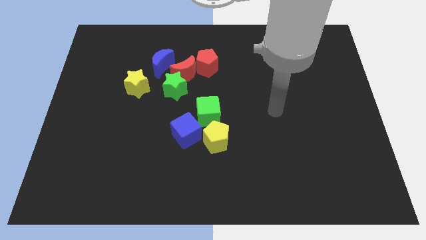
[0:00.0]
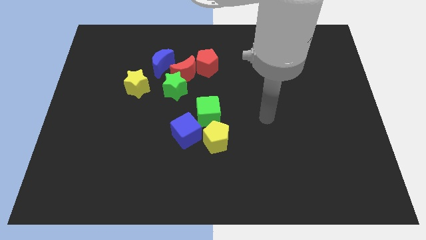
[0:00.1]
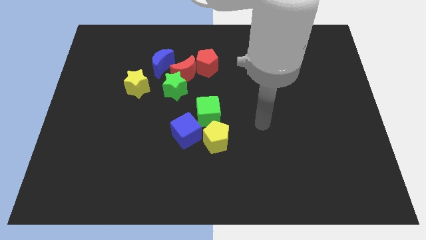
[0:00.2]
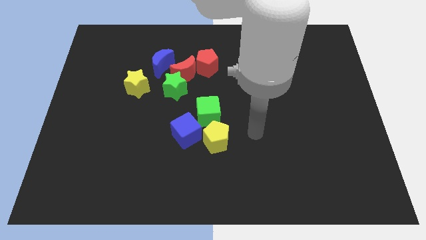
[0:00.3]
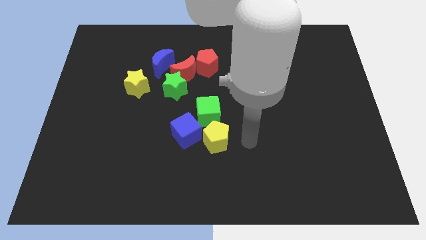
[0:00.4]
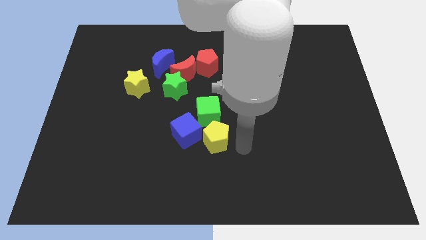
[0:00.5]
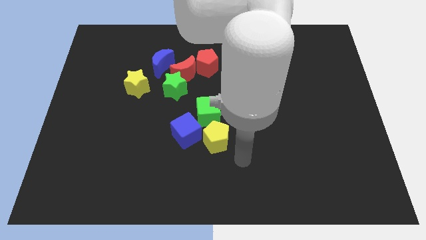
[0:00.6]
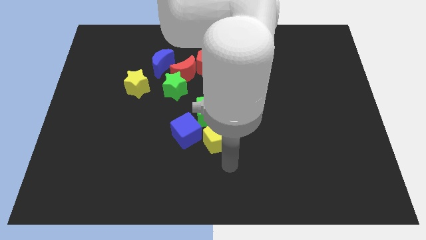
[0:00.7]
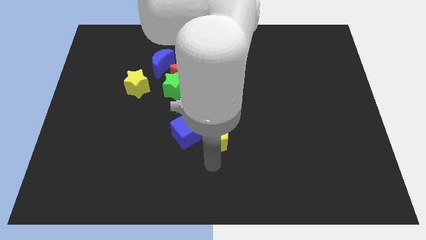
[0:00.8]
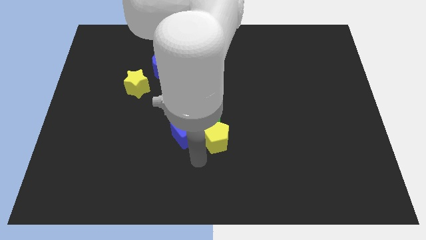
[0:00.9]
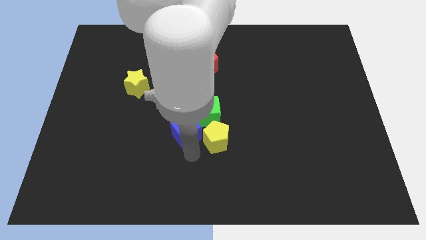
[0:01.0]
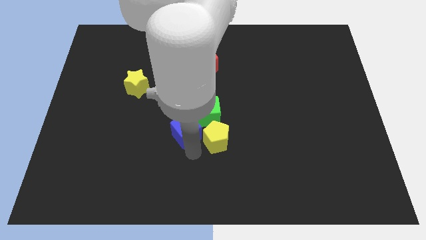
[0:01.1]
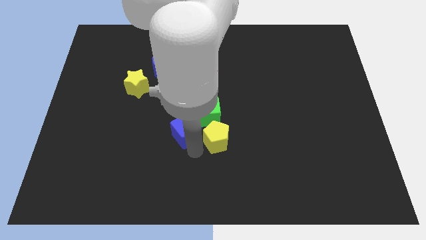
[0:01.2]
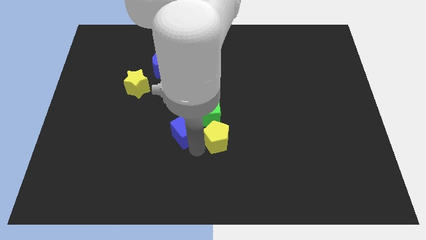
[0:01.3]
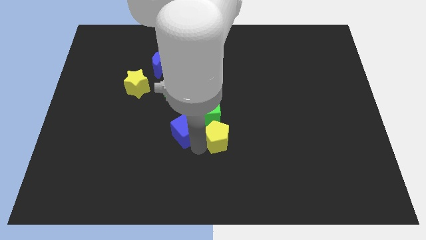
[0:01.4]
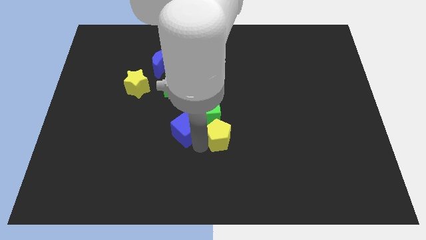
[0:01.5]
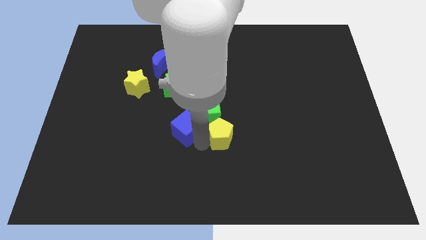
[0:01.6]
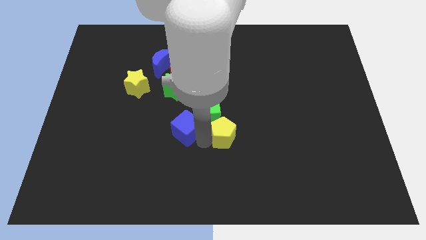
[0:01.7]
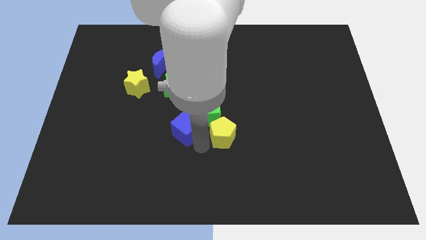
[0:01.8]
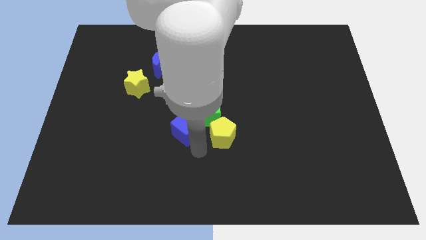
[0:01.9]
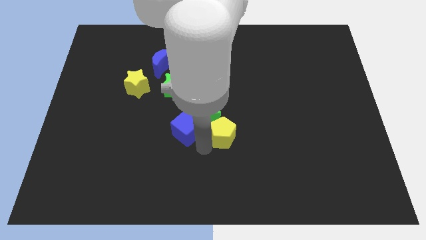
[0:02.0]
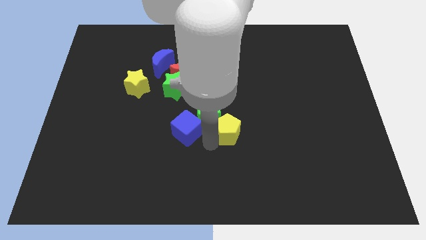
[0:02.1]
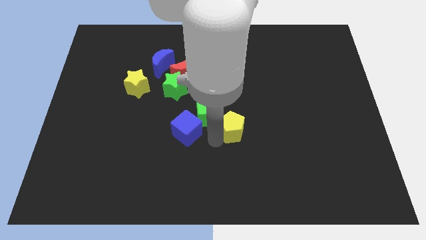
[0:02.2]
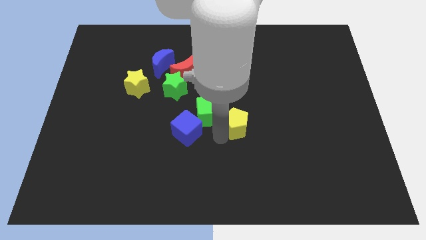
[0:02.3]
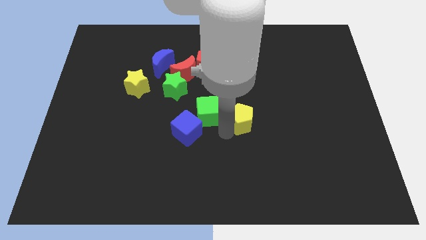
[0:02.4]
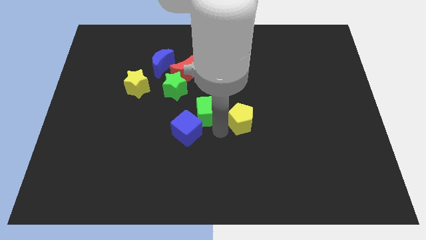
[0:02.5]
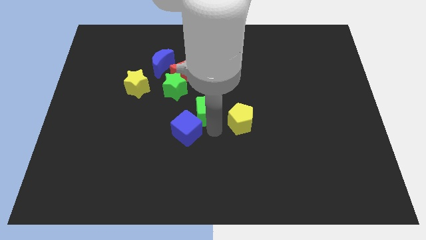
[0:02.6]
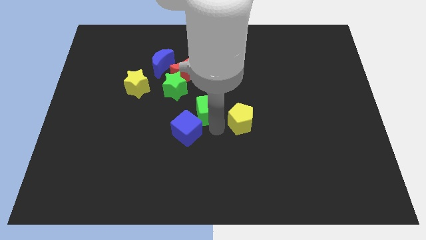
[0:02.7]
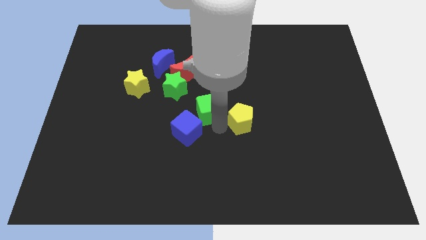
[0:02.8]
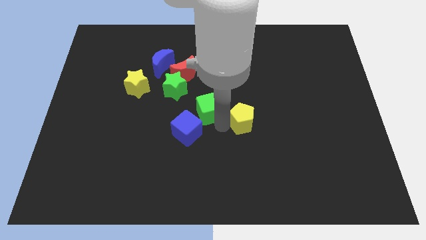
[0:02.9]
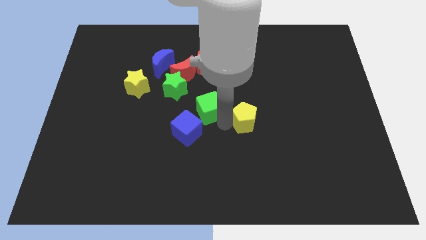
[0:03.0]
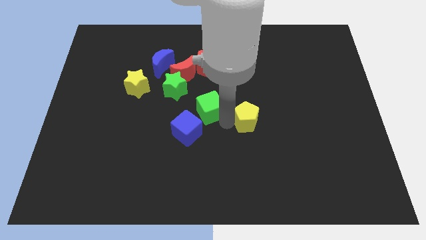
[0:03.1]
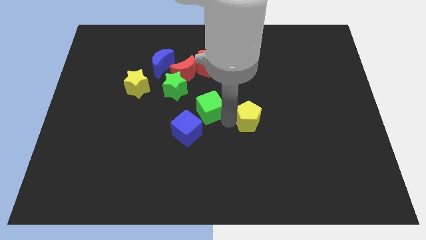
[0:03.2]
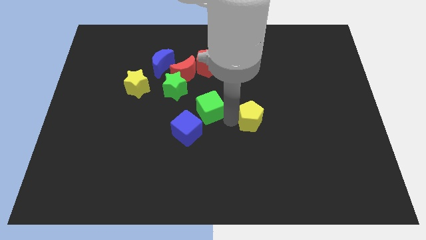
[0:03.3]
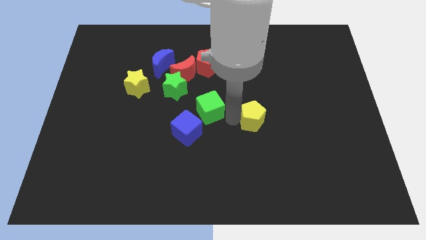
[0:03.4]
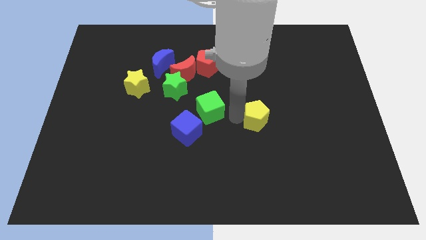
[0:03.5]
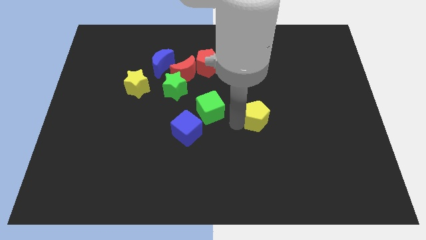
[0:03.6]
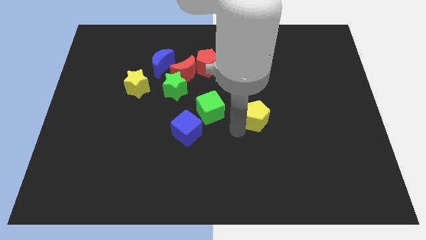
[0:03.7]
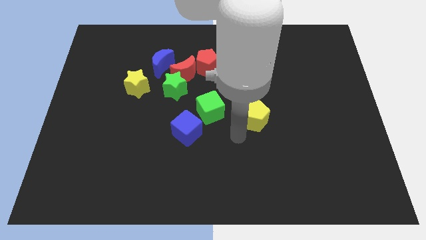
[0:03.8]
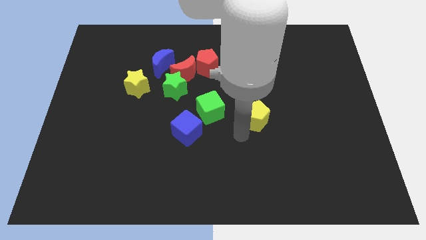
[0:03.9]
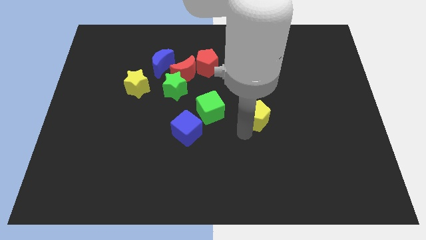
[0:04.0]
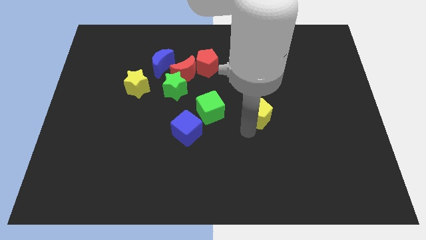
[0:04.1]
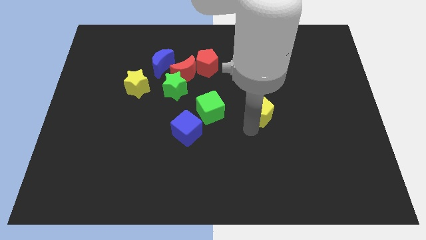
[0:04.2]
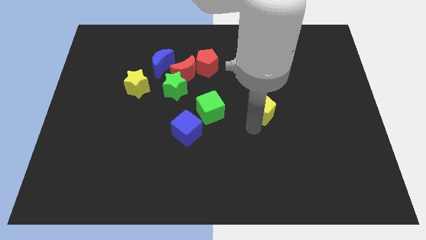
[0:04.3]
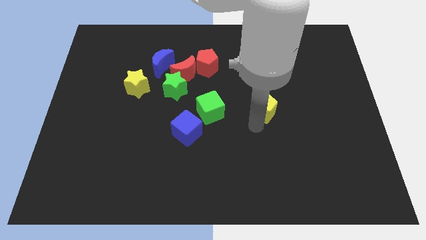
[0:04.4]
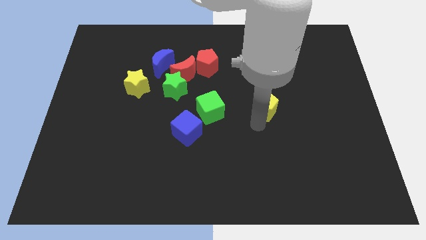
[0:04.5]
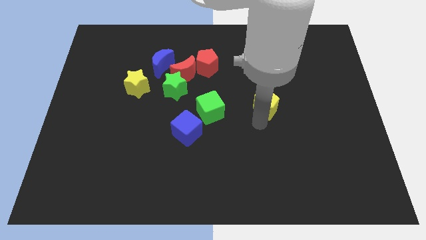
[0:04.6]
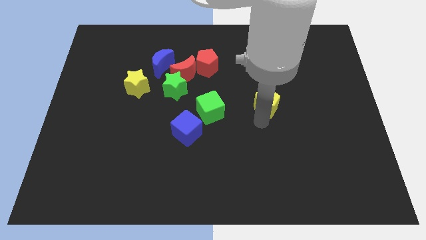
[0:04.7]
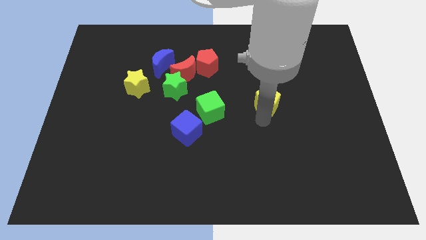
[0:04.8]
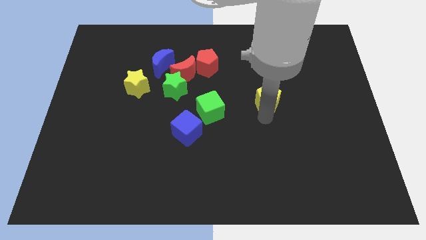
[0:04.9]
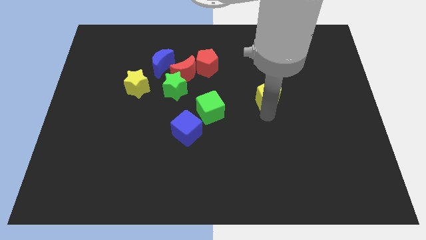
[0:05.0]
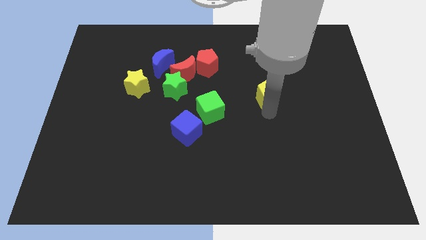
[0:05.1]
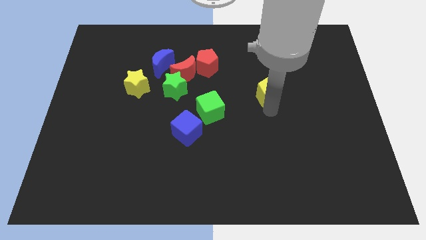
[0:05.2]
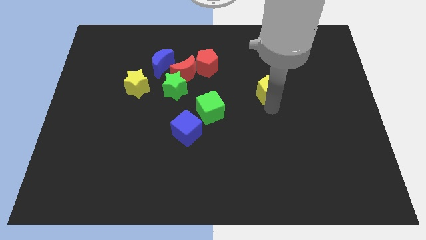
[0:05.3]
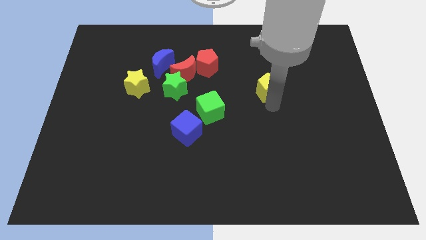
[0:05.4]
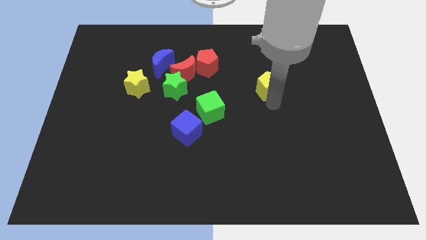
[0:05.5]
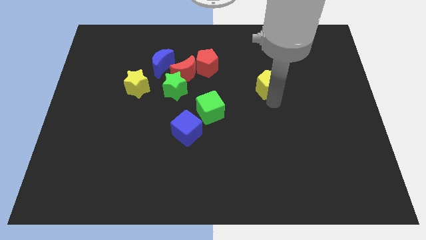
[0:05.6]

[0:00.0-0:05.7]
slide the yellow pentagon upwards and to the right diagonally

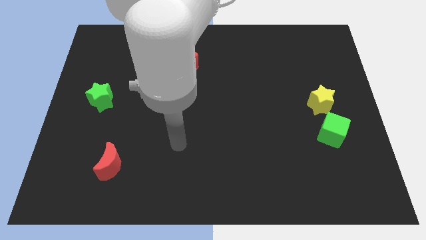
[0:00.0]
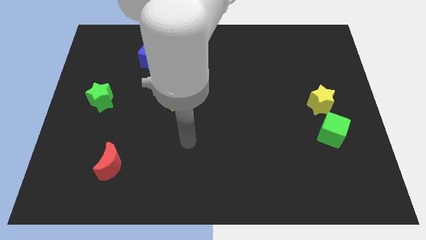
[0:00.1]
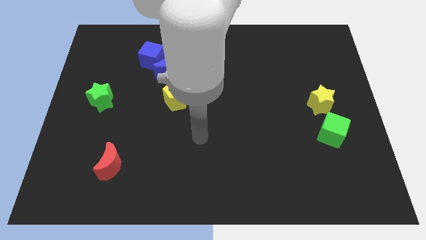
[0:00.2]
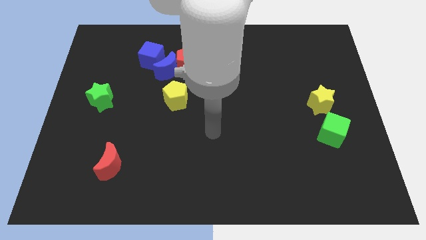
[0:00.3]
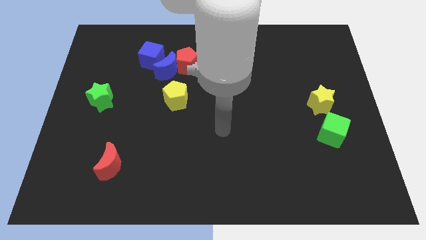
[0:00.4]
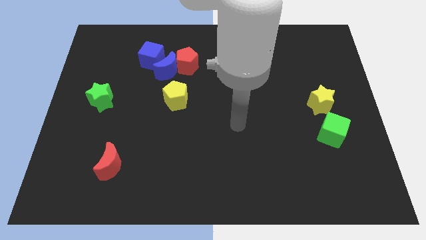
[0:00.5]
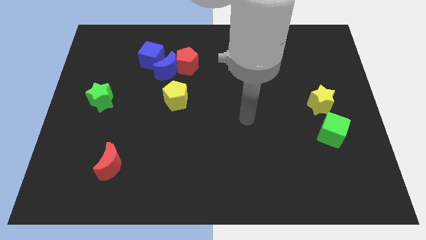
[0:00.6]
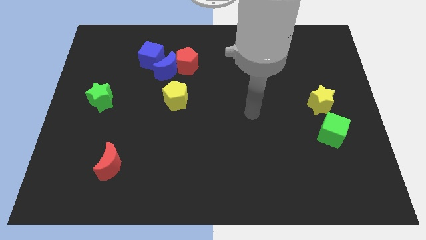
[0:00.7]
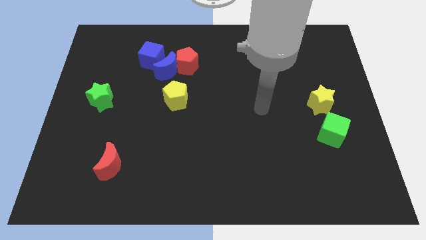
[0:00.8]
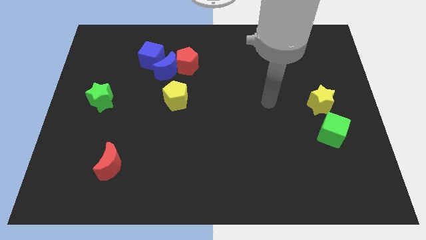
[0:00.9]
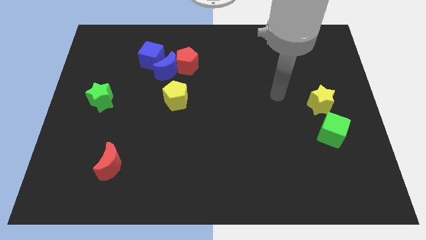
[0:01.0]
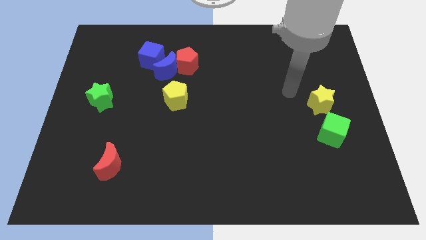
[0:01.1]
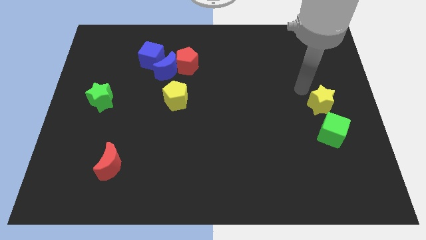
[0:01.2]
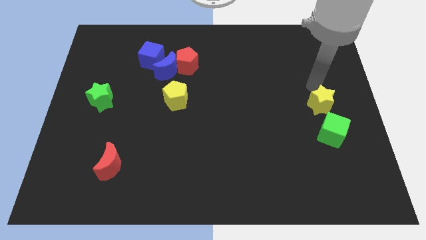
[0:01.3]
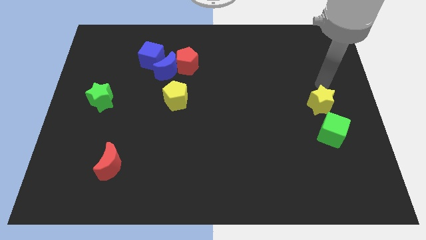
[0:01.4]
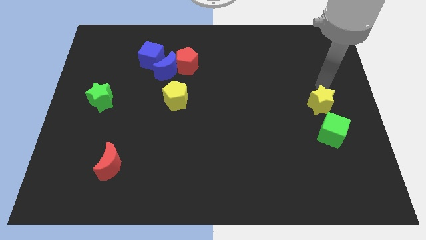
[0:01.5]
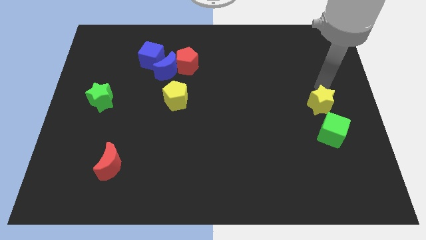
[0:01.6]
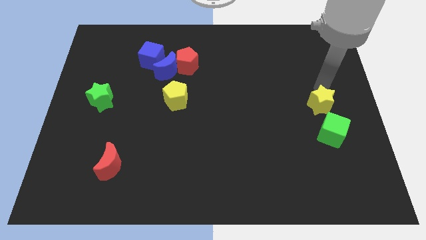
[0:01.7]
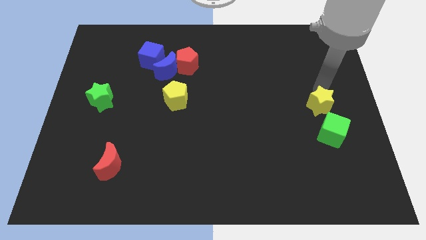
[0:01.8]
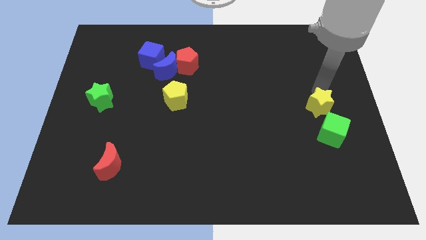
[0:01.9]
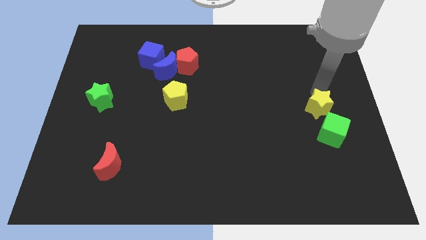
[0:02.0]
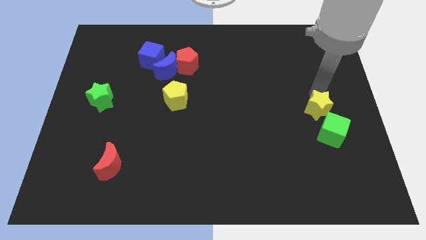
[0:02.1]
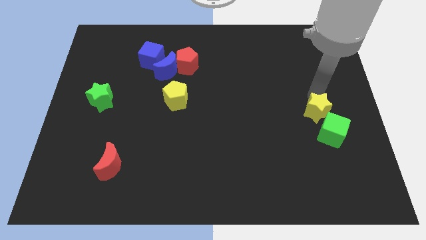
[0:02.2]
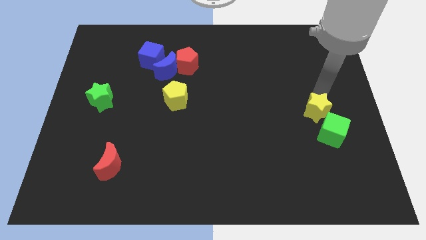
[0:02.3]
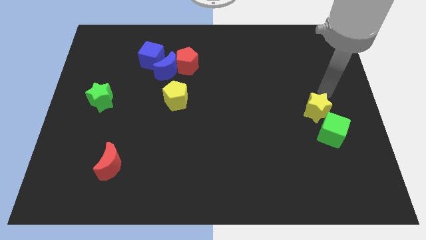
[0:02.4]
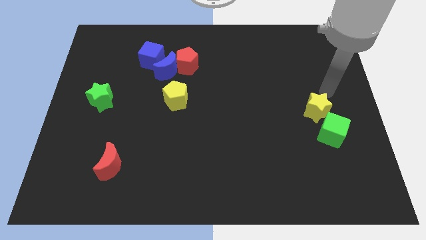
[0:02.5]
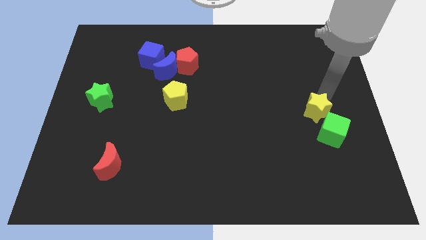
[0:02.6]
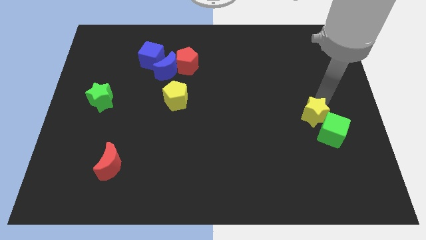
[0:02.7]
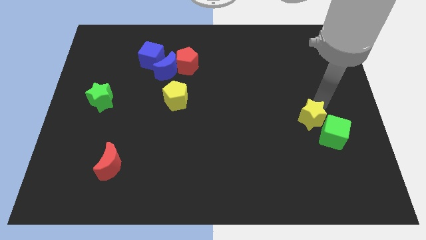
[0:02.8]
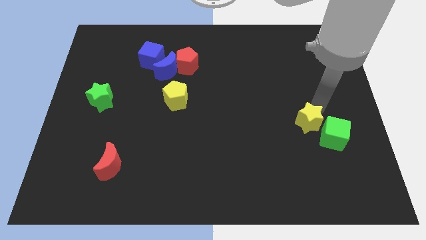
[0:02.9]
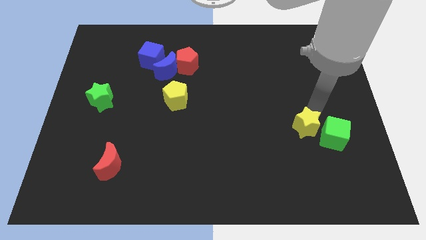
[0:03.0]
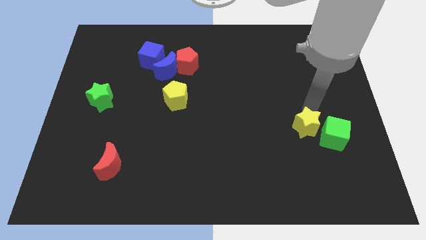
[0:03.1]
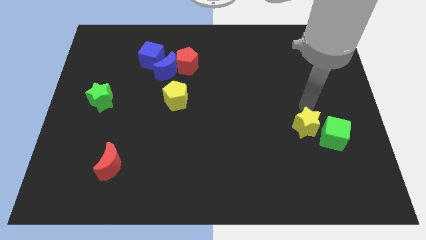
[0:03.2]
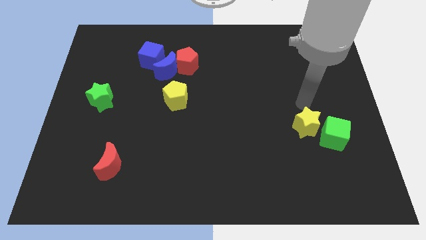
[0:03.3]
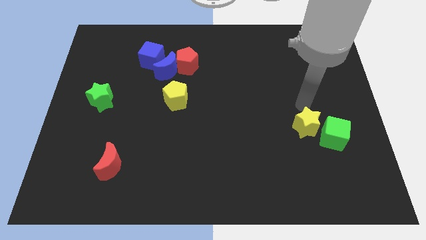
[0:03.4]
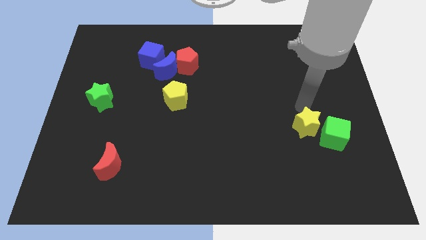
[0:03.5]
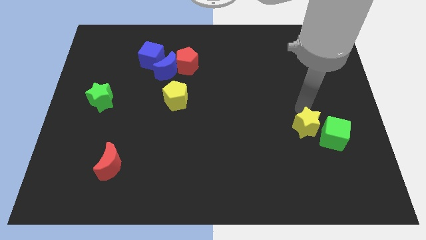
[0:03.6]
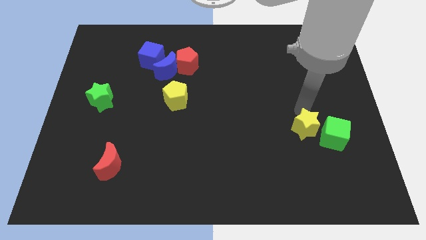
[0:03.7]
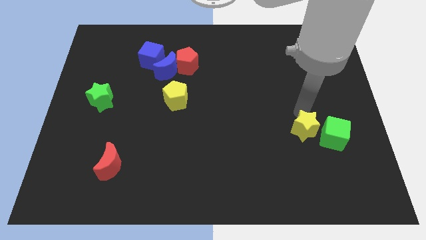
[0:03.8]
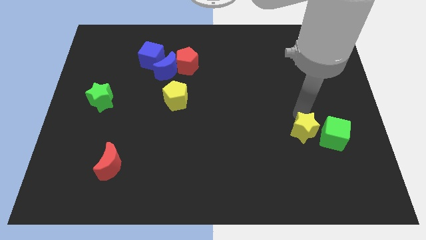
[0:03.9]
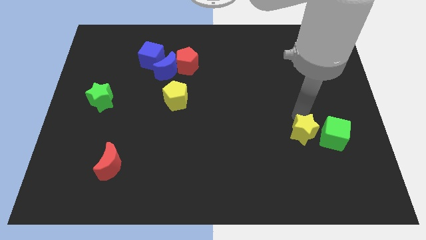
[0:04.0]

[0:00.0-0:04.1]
slide the yellow star a little downwards
